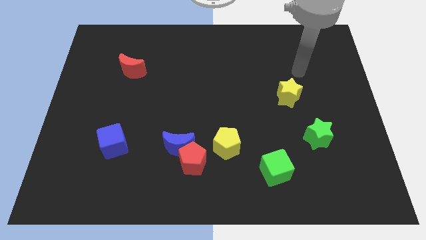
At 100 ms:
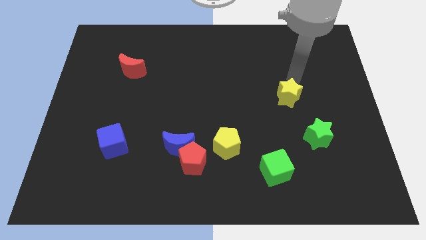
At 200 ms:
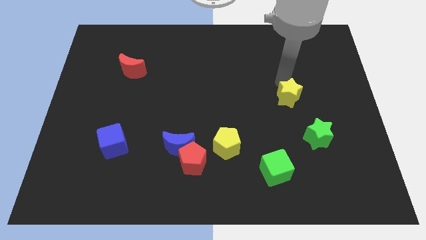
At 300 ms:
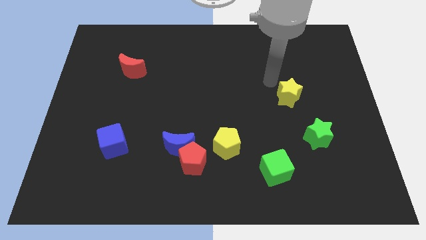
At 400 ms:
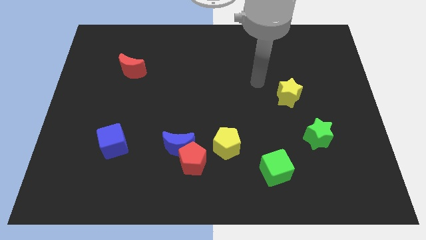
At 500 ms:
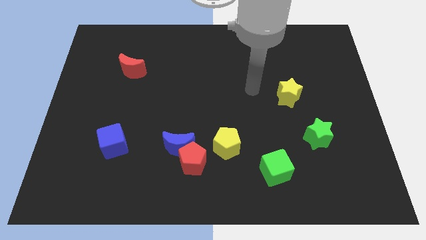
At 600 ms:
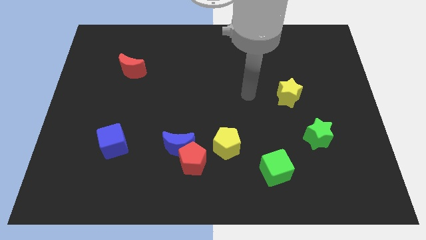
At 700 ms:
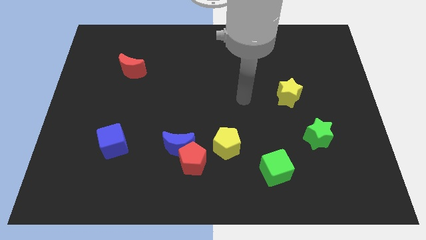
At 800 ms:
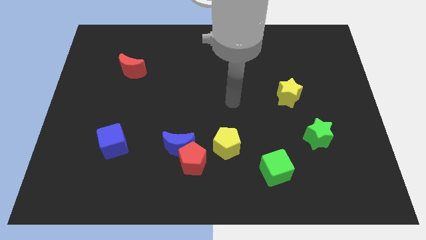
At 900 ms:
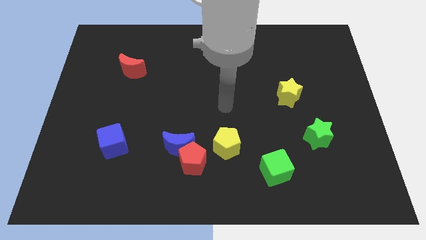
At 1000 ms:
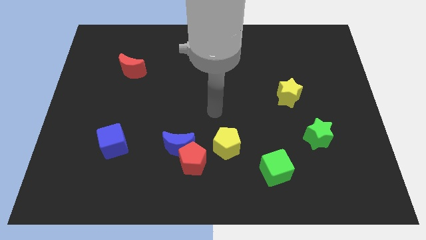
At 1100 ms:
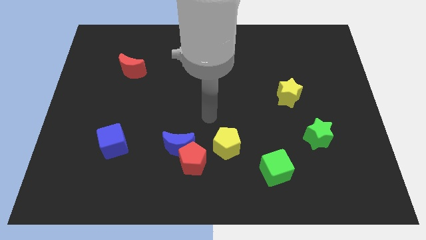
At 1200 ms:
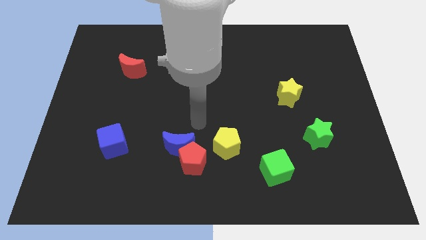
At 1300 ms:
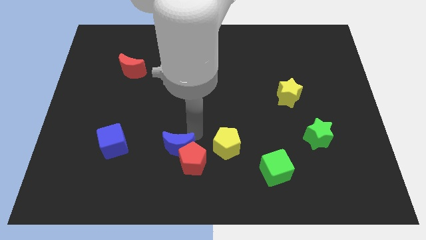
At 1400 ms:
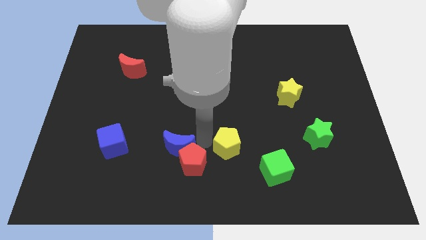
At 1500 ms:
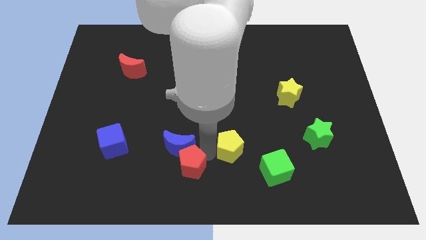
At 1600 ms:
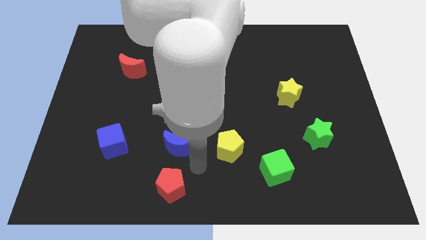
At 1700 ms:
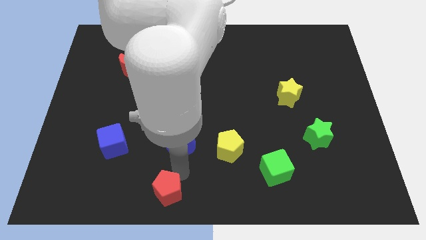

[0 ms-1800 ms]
separate the blue moon from the red pentagon

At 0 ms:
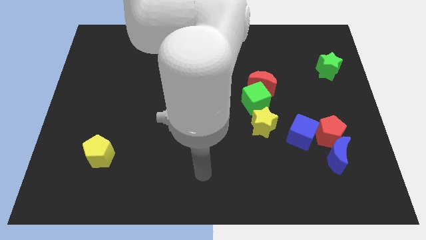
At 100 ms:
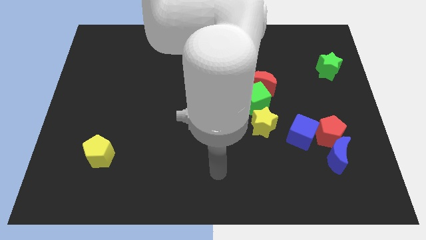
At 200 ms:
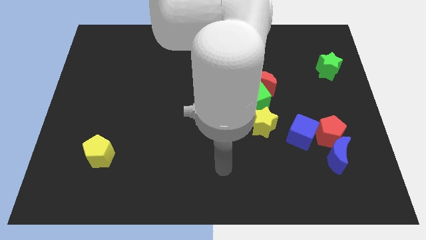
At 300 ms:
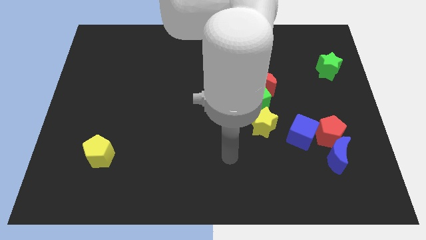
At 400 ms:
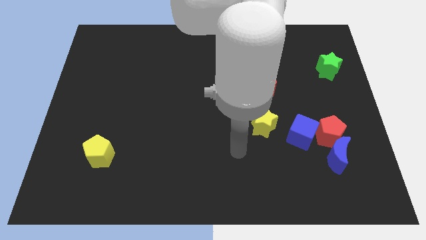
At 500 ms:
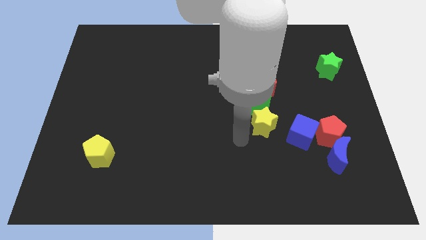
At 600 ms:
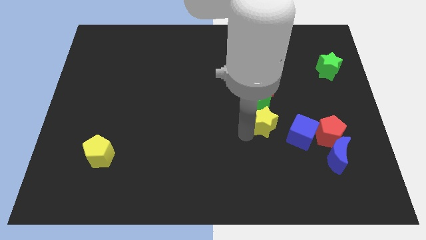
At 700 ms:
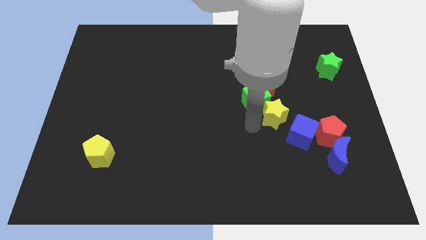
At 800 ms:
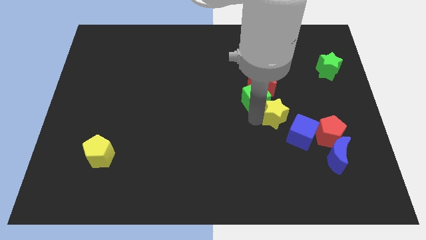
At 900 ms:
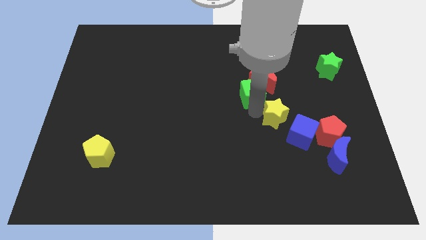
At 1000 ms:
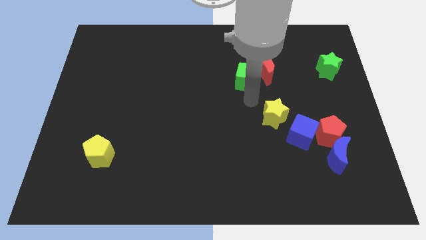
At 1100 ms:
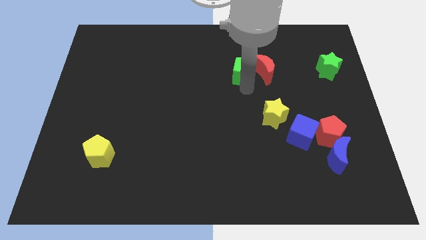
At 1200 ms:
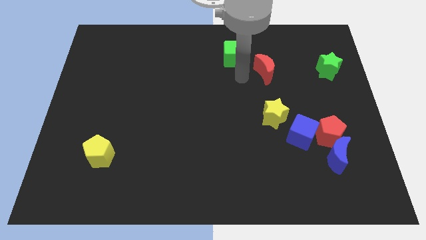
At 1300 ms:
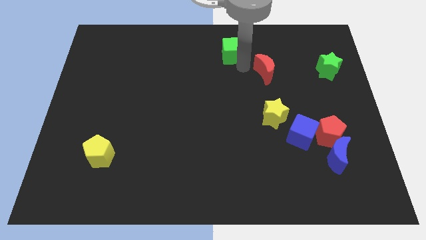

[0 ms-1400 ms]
pull the red moon apart from the green cube

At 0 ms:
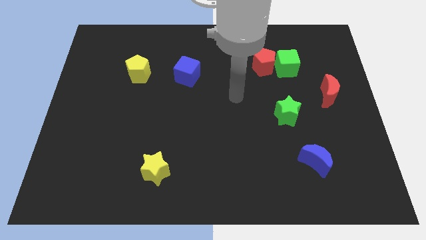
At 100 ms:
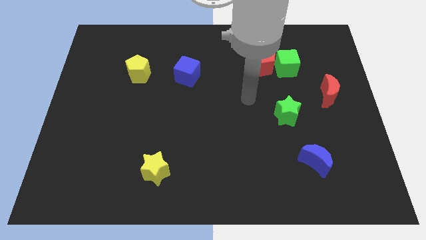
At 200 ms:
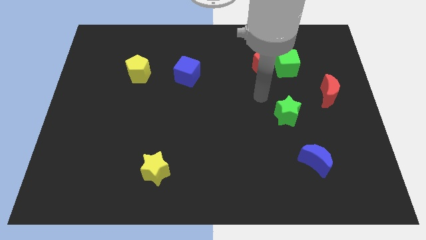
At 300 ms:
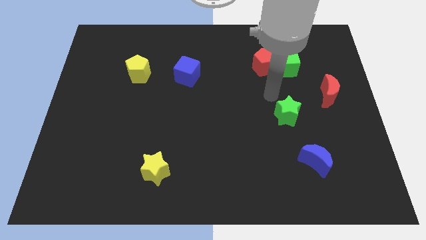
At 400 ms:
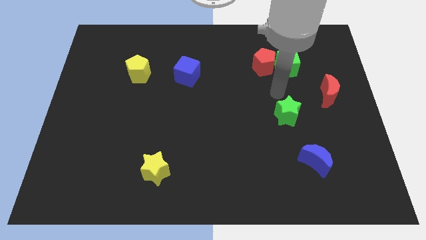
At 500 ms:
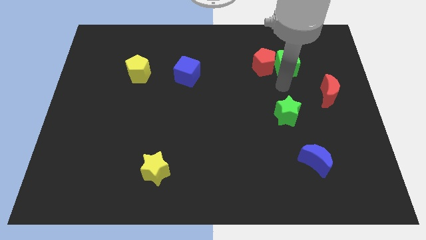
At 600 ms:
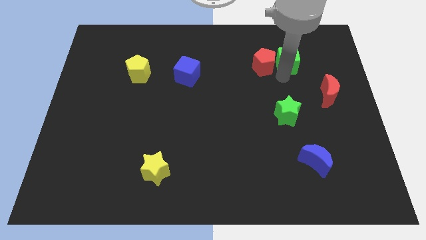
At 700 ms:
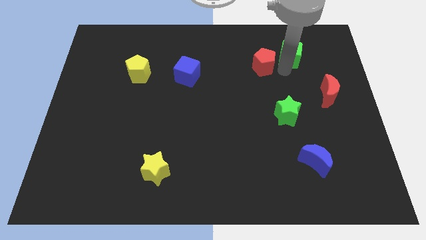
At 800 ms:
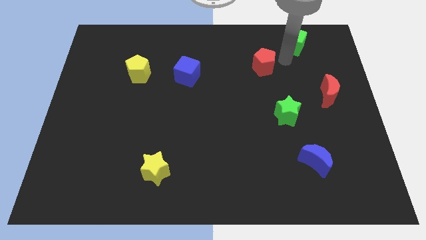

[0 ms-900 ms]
move the red pentagon away from the green cube

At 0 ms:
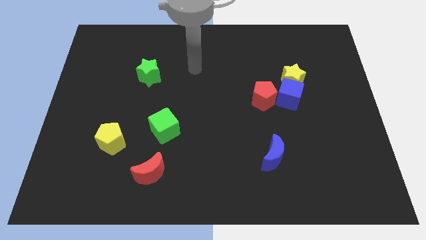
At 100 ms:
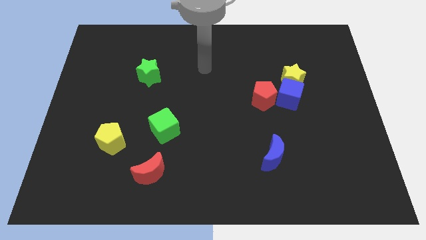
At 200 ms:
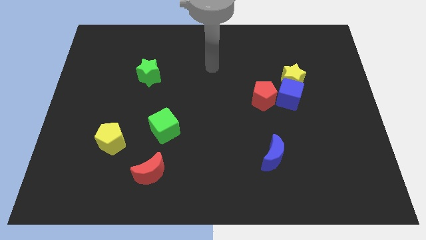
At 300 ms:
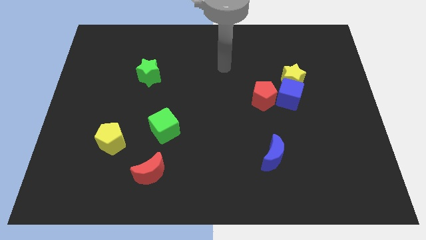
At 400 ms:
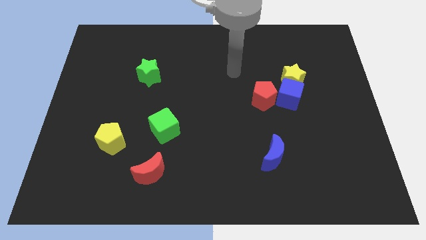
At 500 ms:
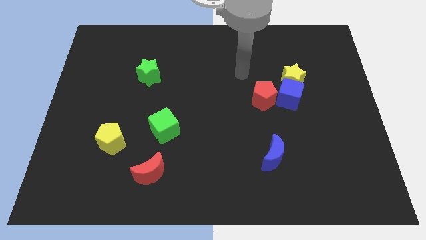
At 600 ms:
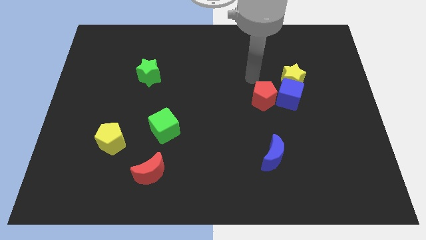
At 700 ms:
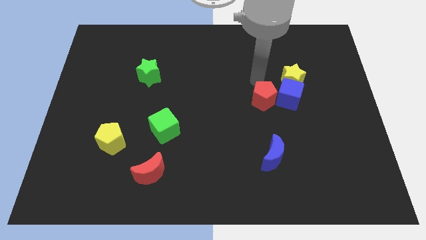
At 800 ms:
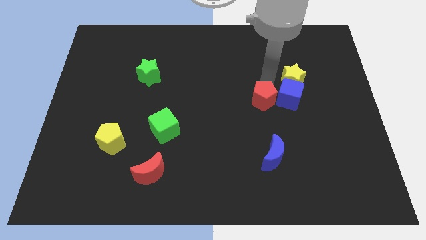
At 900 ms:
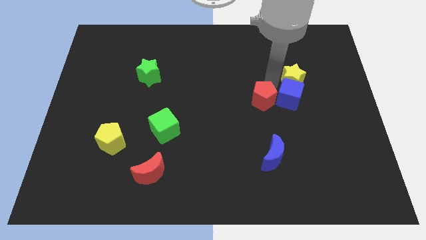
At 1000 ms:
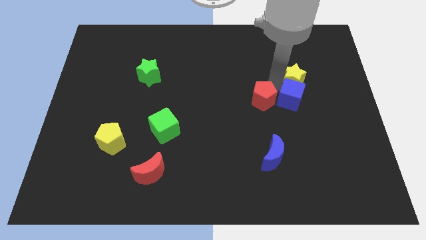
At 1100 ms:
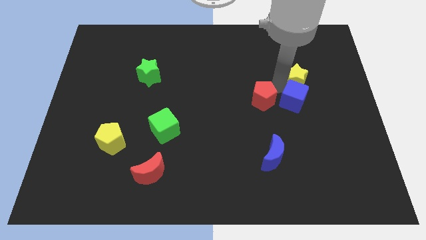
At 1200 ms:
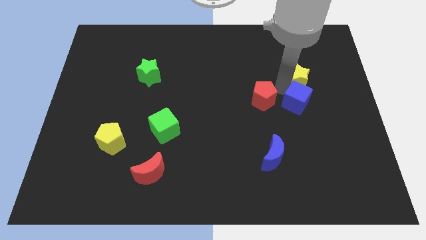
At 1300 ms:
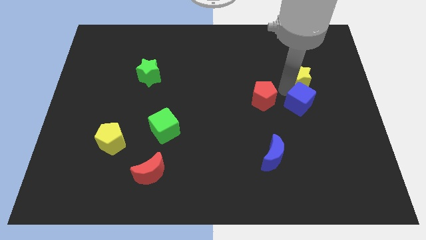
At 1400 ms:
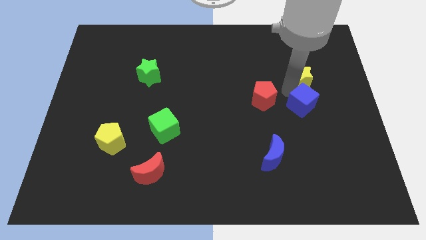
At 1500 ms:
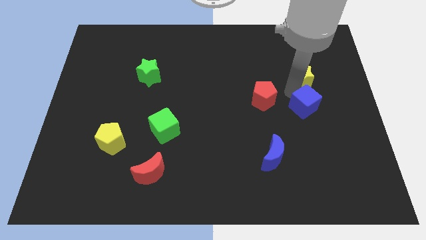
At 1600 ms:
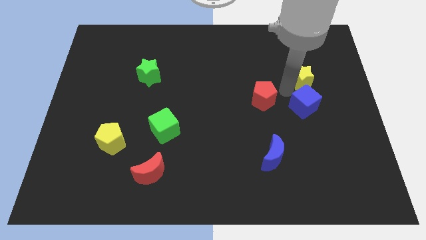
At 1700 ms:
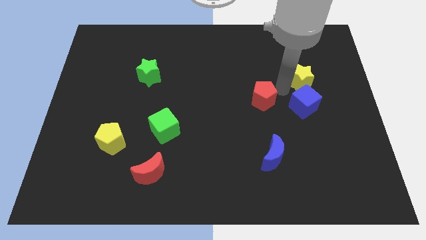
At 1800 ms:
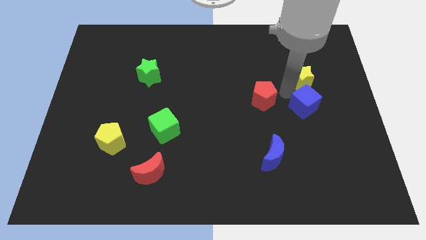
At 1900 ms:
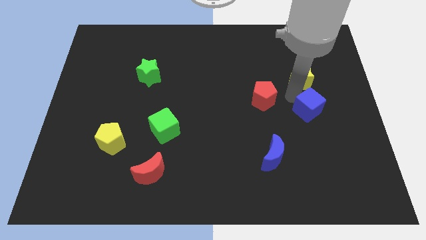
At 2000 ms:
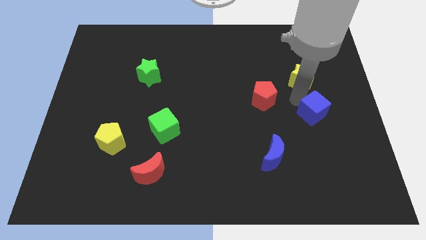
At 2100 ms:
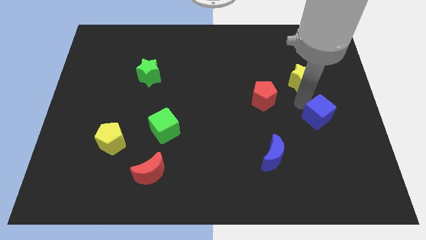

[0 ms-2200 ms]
move the blue cube away from the yellow star and red pentagon

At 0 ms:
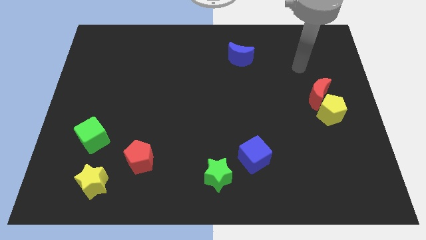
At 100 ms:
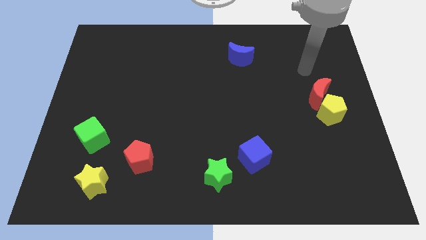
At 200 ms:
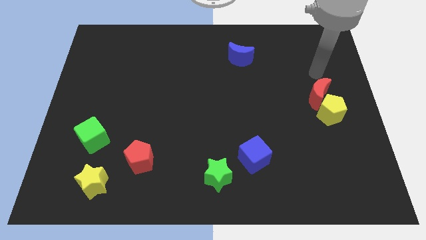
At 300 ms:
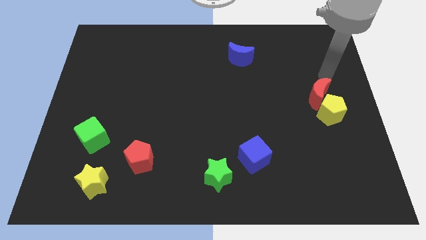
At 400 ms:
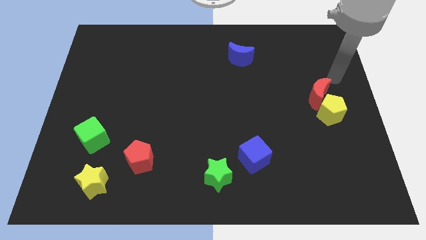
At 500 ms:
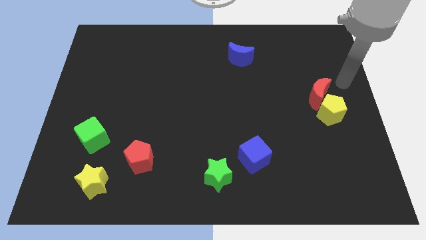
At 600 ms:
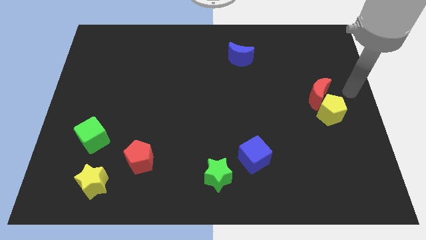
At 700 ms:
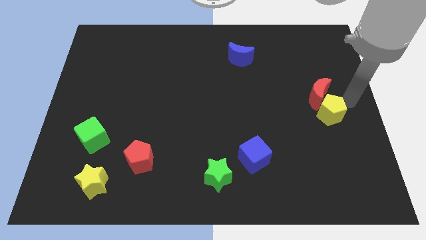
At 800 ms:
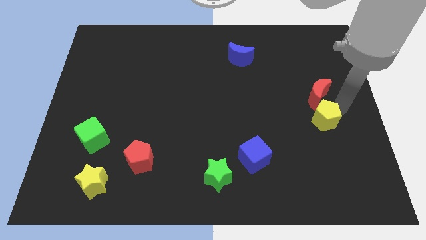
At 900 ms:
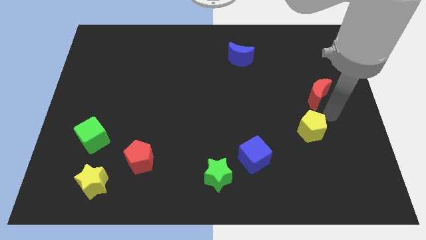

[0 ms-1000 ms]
pull the red moon apart from the yellow pentagon

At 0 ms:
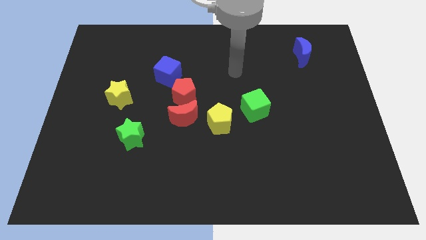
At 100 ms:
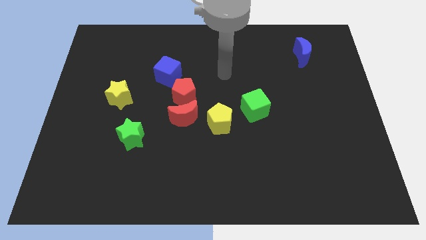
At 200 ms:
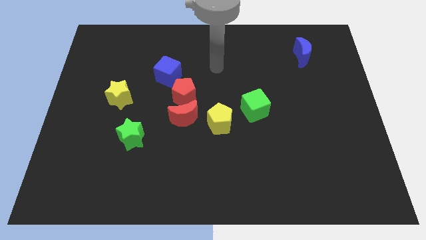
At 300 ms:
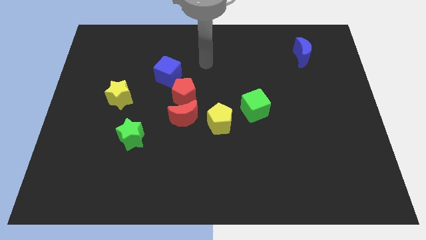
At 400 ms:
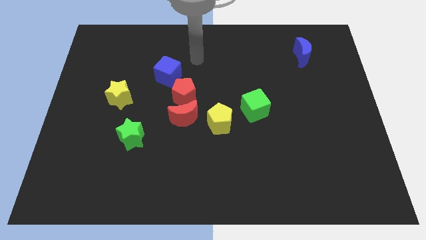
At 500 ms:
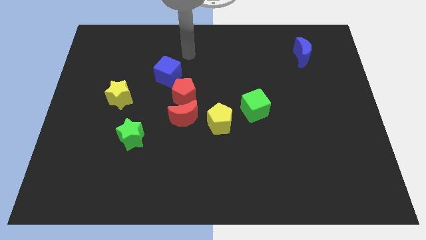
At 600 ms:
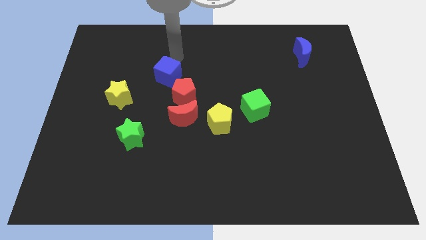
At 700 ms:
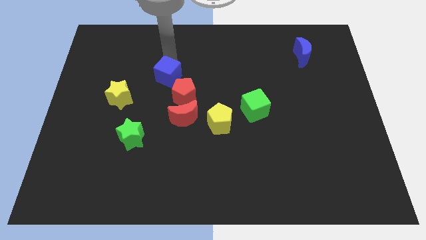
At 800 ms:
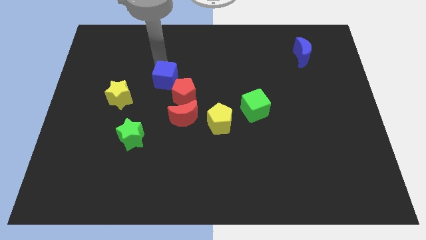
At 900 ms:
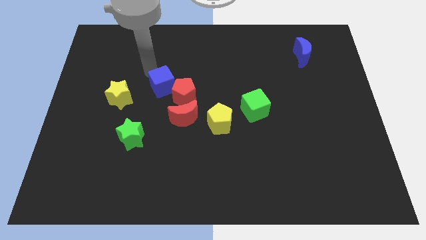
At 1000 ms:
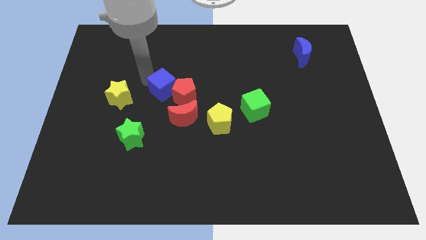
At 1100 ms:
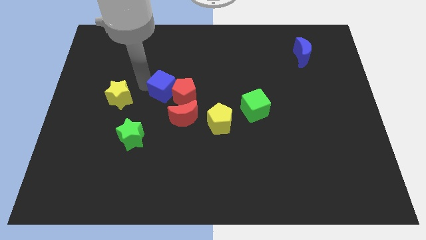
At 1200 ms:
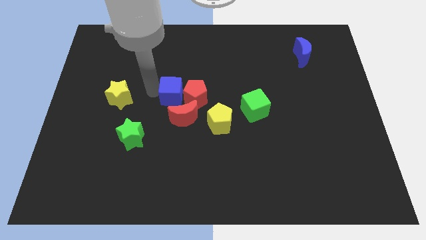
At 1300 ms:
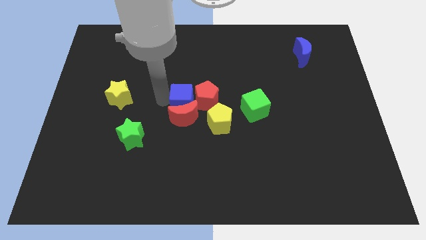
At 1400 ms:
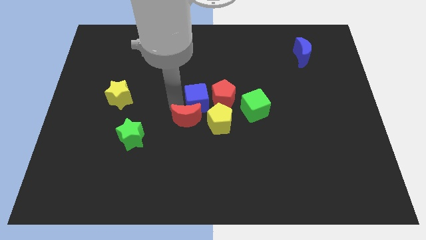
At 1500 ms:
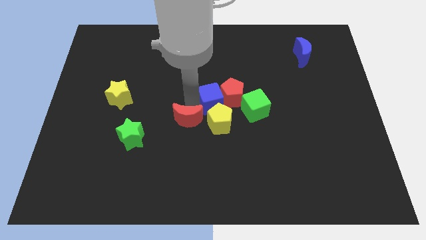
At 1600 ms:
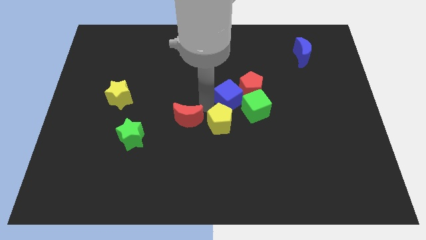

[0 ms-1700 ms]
pull the red pentagon apart from the red moon and blue cube

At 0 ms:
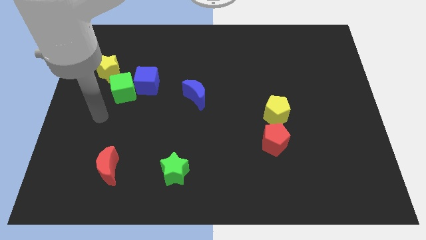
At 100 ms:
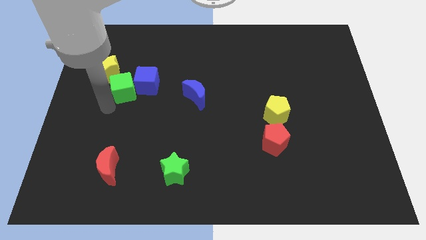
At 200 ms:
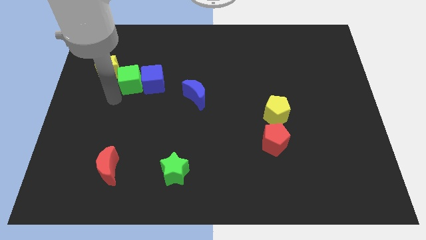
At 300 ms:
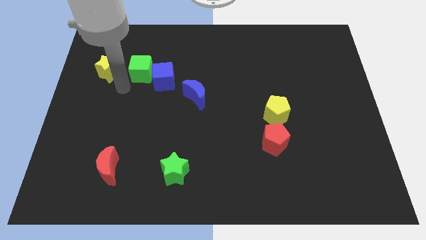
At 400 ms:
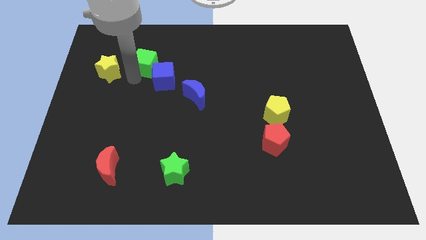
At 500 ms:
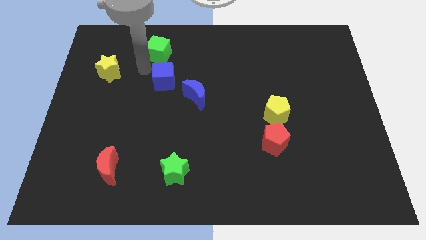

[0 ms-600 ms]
separate the blue cube from the green cube
